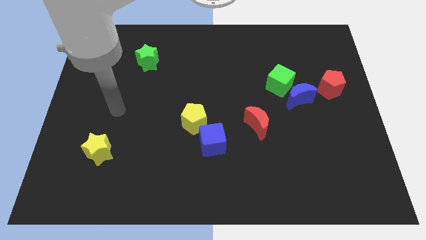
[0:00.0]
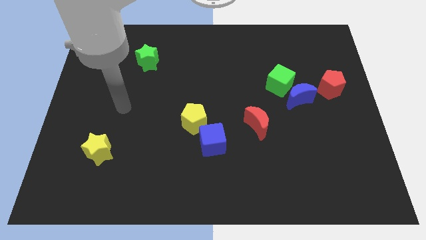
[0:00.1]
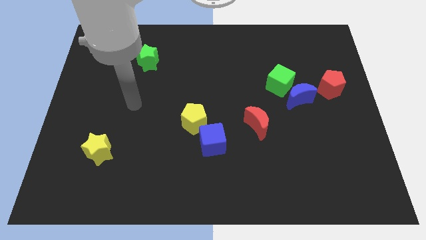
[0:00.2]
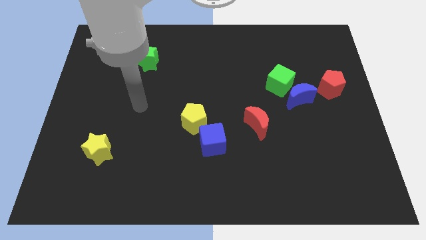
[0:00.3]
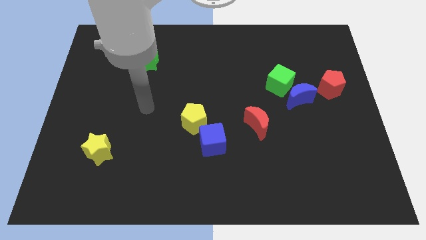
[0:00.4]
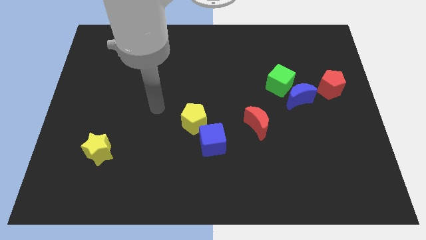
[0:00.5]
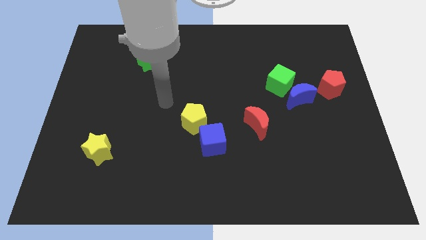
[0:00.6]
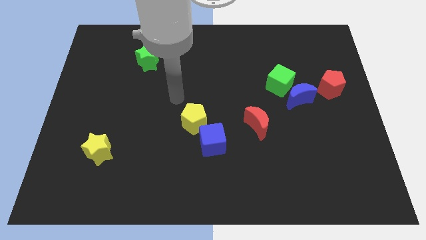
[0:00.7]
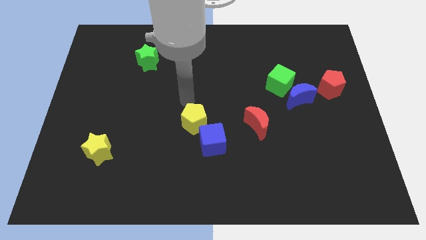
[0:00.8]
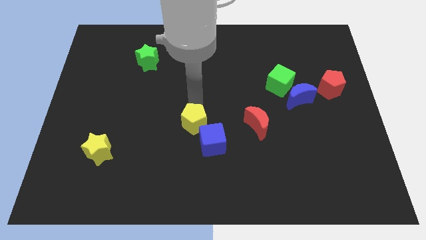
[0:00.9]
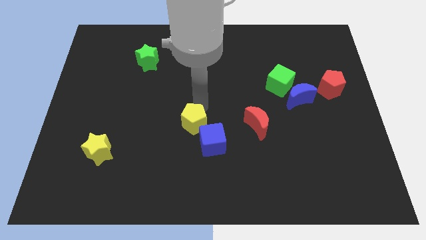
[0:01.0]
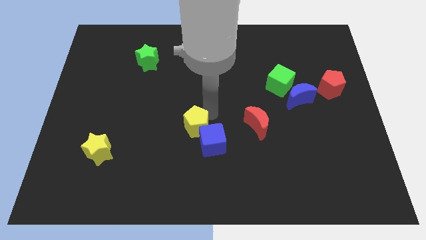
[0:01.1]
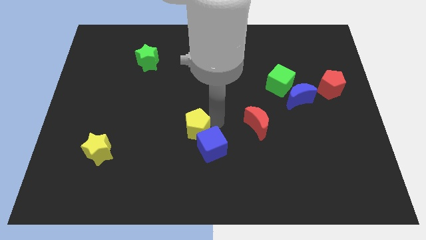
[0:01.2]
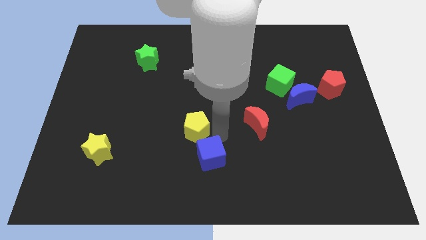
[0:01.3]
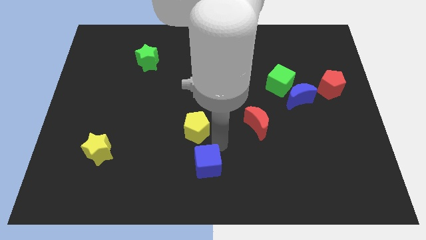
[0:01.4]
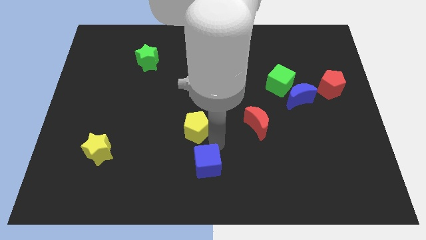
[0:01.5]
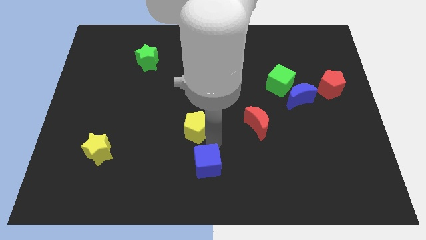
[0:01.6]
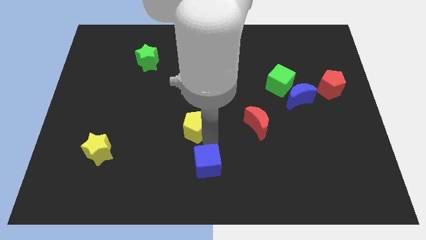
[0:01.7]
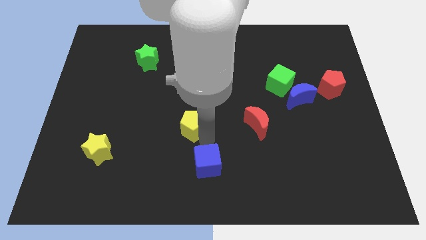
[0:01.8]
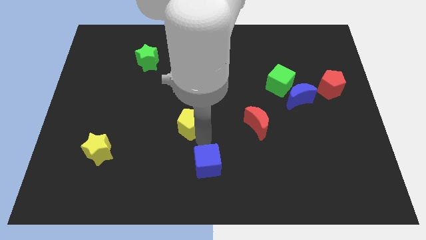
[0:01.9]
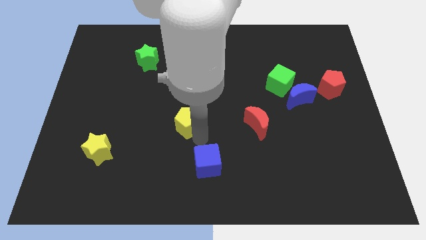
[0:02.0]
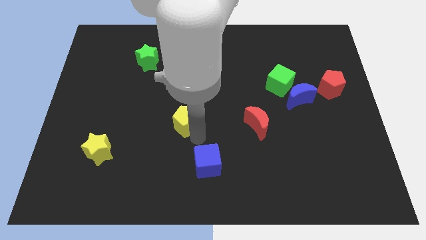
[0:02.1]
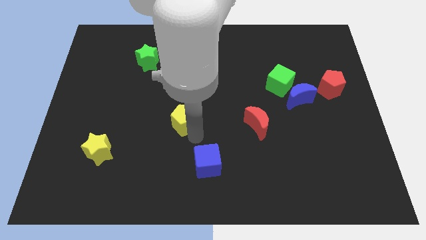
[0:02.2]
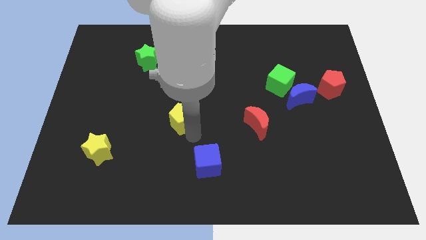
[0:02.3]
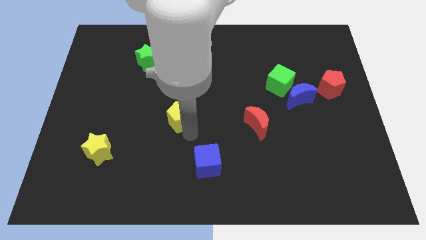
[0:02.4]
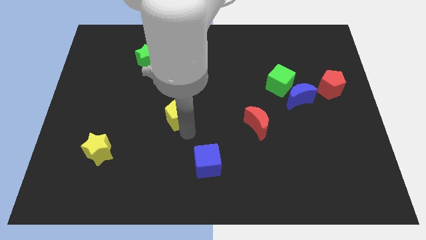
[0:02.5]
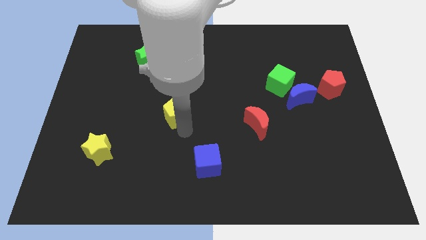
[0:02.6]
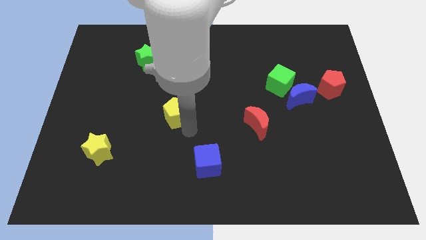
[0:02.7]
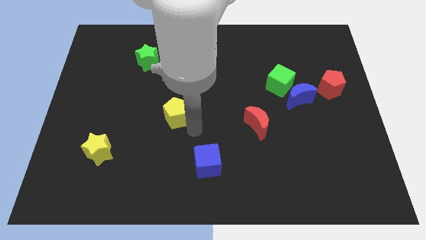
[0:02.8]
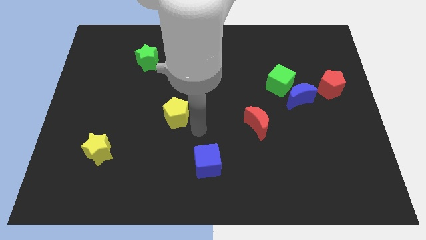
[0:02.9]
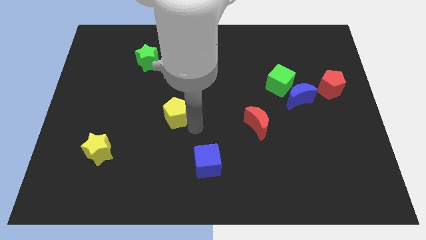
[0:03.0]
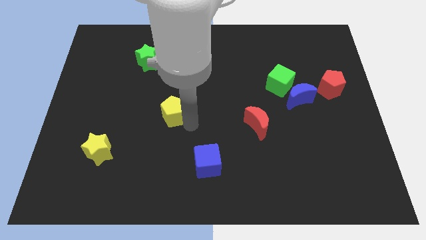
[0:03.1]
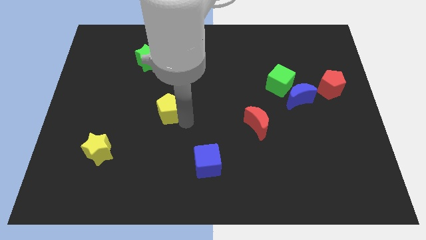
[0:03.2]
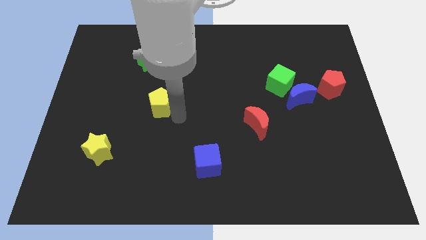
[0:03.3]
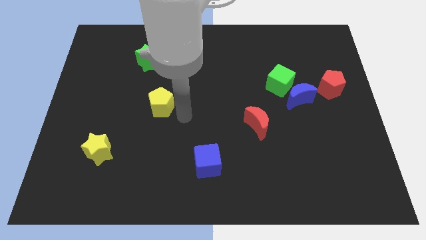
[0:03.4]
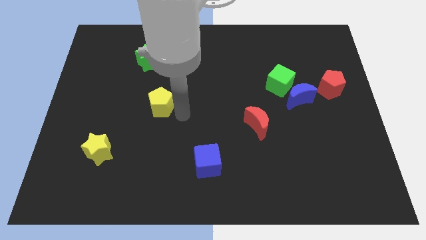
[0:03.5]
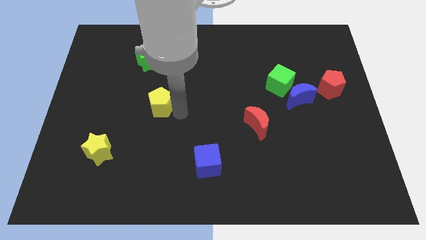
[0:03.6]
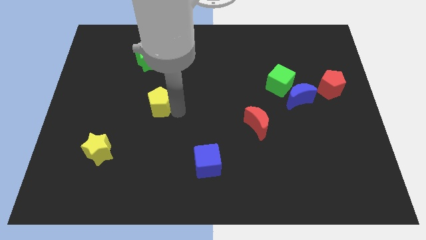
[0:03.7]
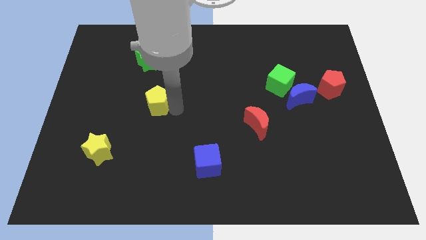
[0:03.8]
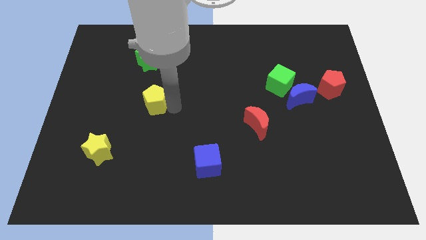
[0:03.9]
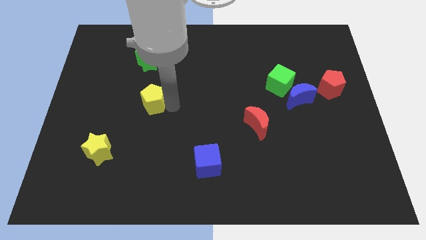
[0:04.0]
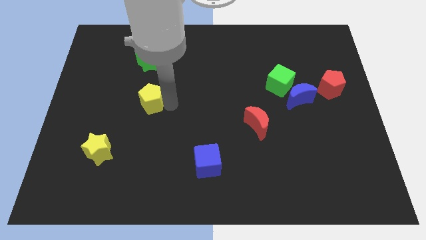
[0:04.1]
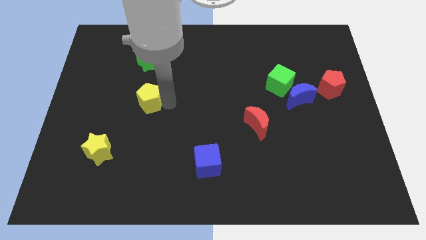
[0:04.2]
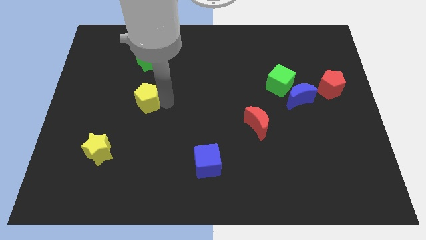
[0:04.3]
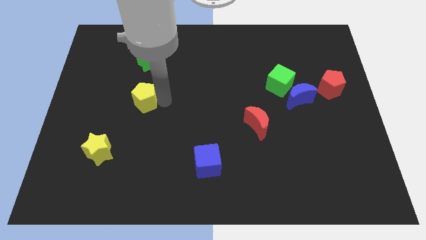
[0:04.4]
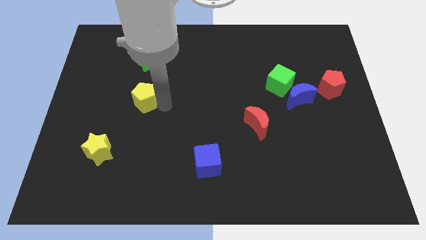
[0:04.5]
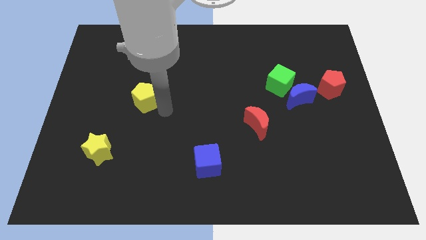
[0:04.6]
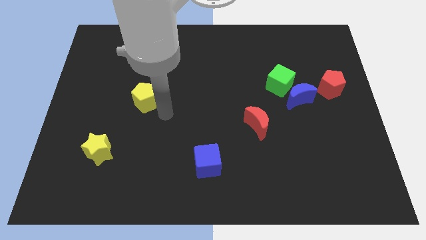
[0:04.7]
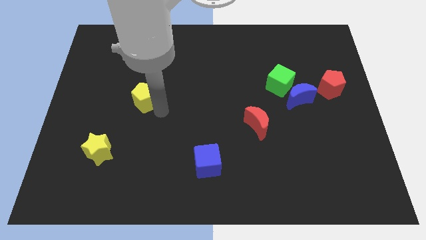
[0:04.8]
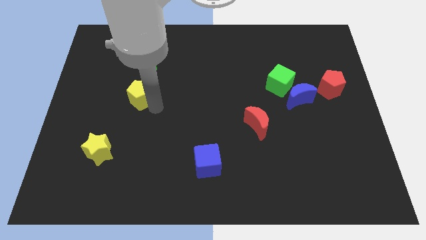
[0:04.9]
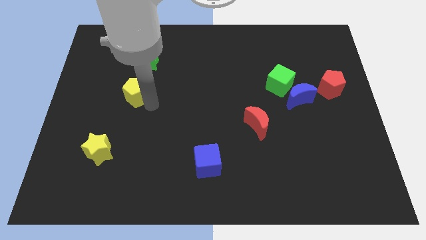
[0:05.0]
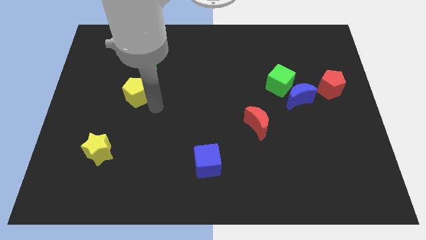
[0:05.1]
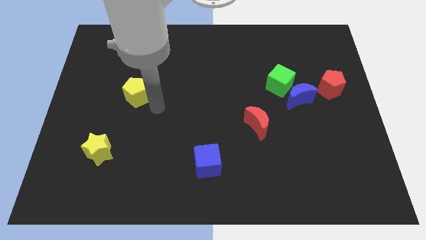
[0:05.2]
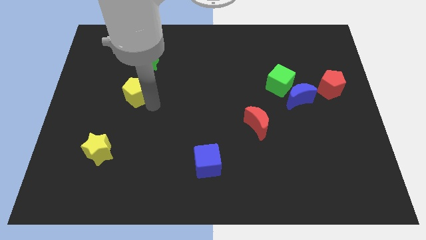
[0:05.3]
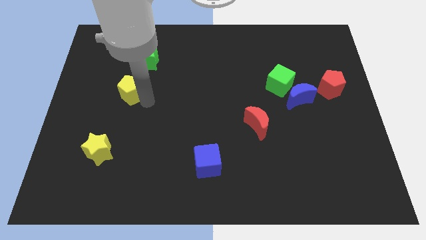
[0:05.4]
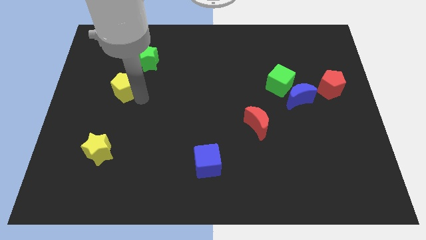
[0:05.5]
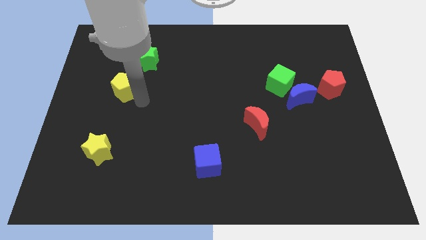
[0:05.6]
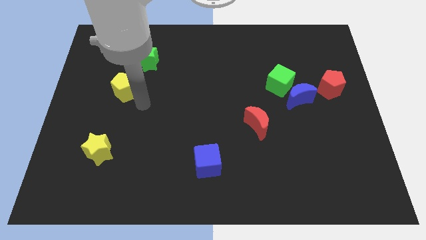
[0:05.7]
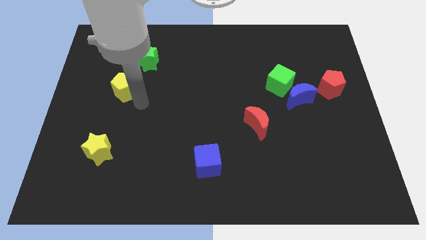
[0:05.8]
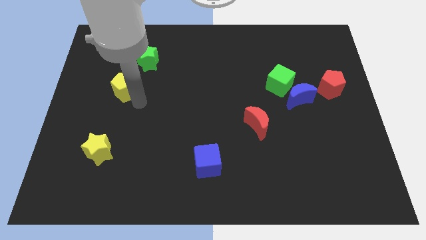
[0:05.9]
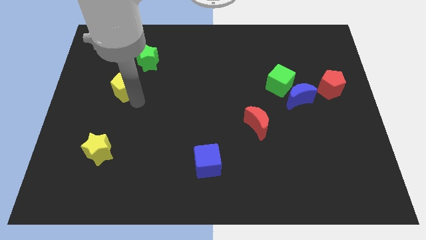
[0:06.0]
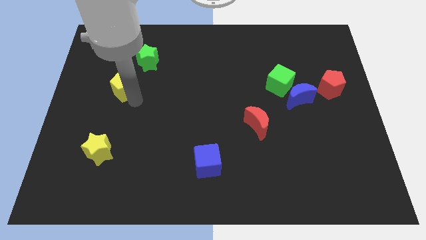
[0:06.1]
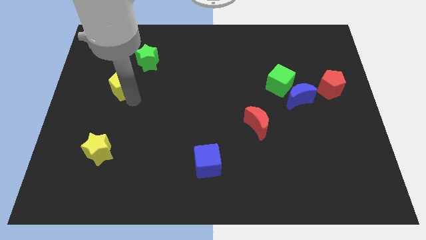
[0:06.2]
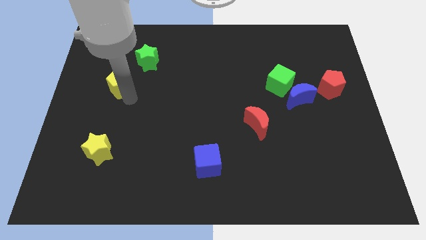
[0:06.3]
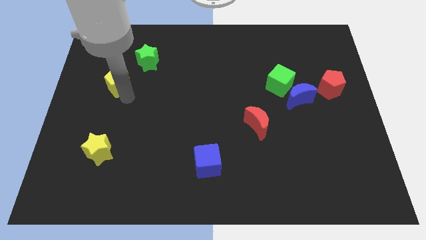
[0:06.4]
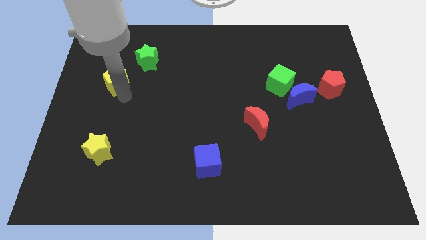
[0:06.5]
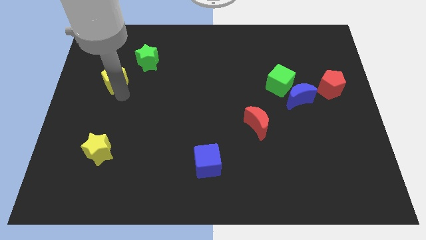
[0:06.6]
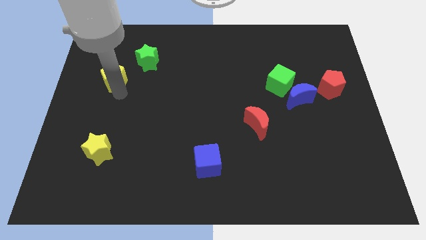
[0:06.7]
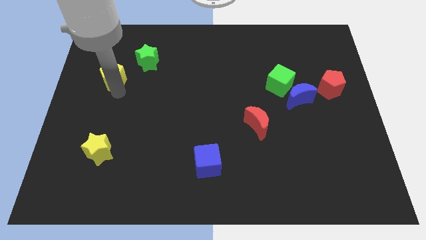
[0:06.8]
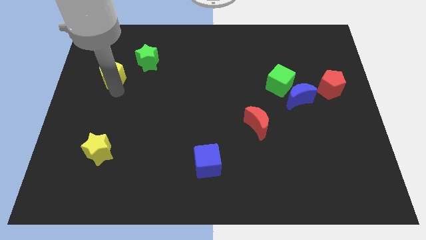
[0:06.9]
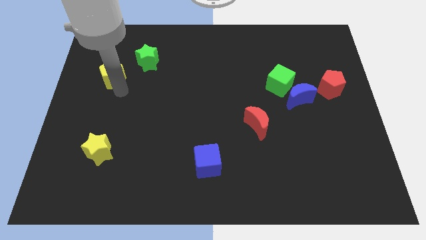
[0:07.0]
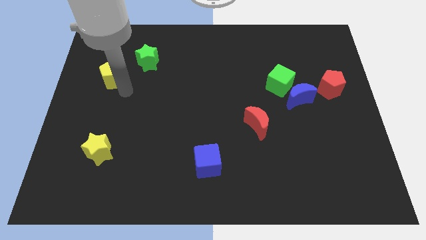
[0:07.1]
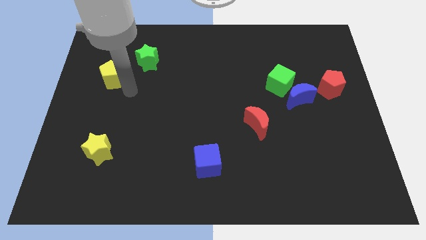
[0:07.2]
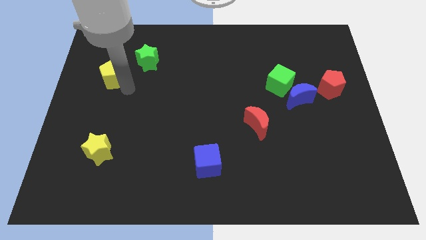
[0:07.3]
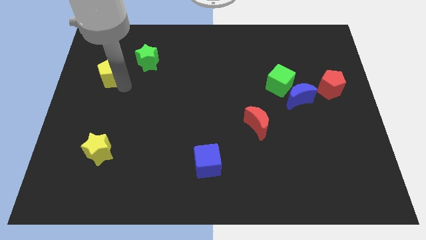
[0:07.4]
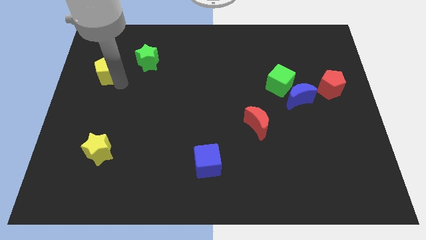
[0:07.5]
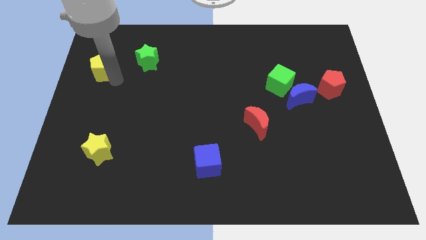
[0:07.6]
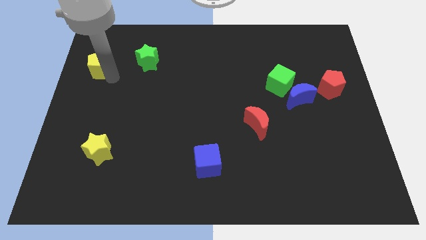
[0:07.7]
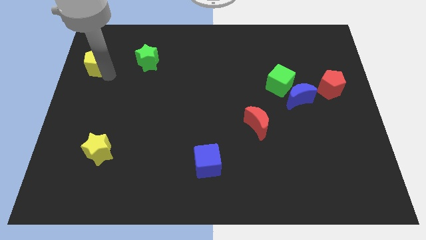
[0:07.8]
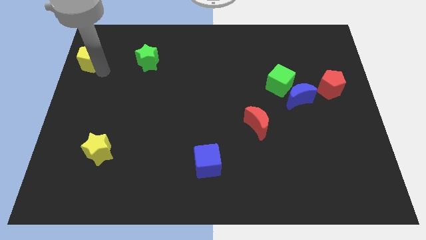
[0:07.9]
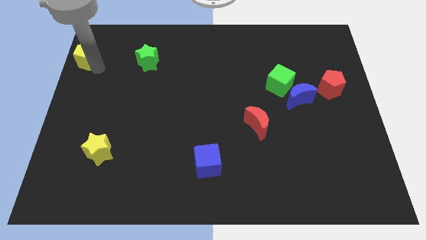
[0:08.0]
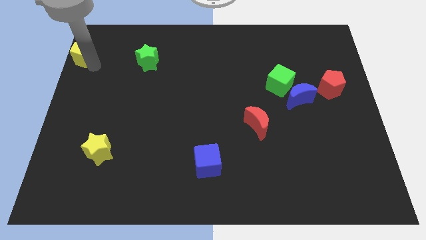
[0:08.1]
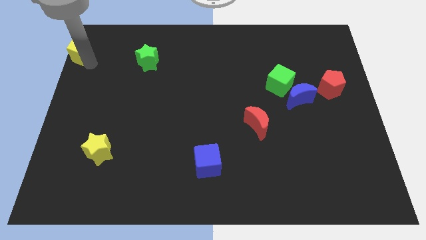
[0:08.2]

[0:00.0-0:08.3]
slide the yellow pentagon to the top left corner
